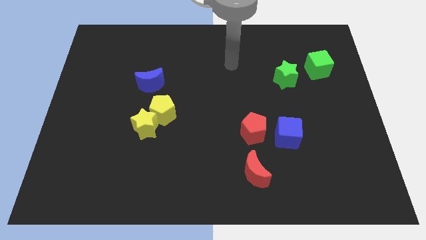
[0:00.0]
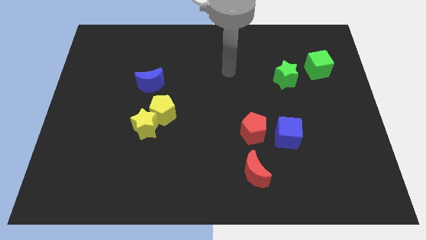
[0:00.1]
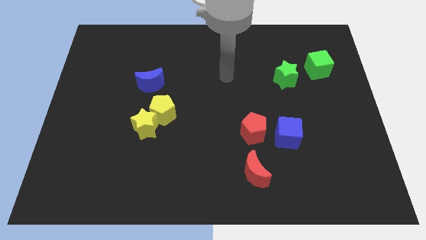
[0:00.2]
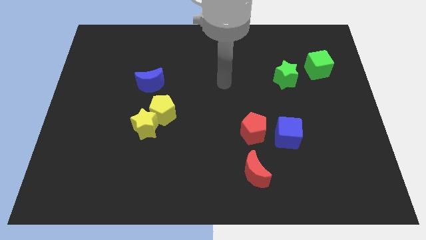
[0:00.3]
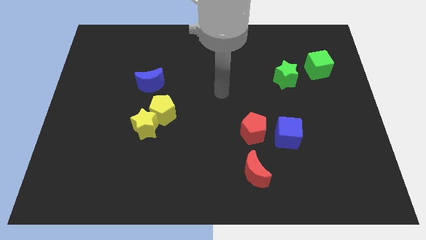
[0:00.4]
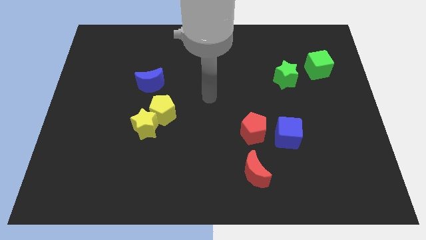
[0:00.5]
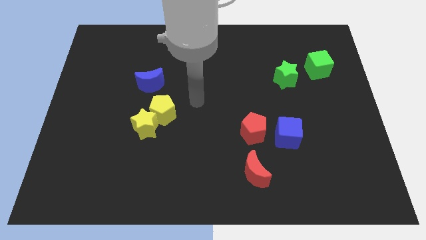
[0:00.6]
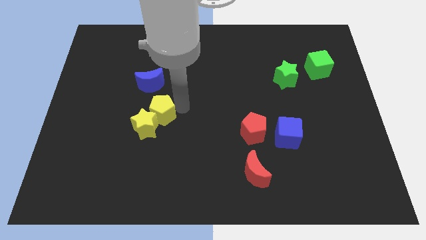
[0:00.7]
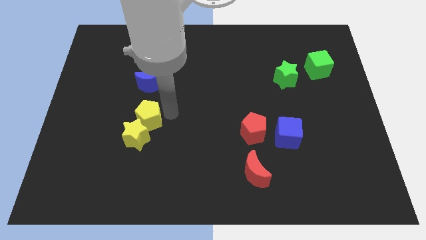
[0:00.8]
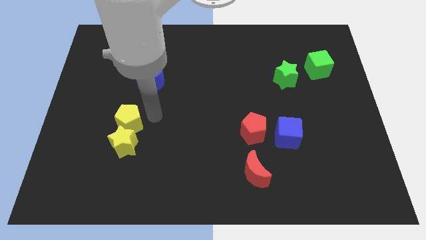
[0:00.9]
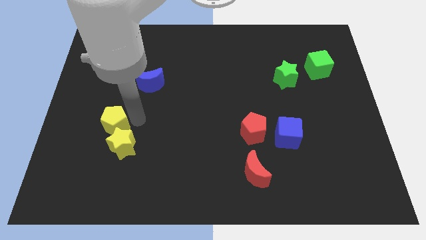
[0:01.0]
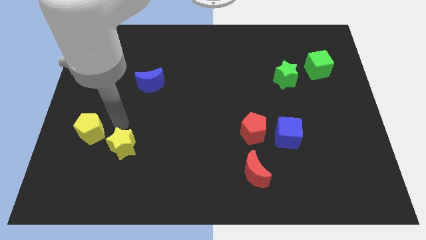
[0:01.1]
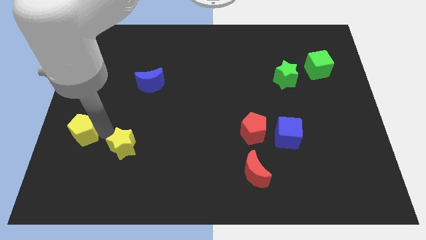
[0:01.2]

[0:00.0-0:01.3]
pull the yellow star apart from the yellow pentagon

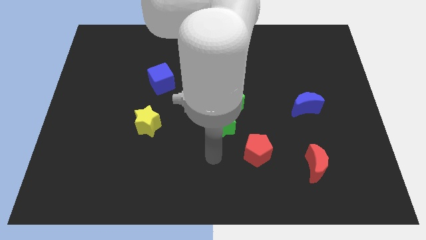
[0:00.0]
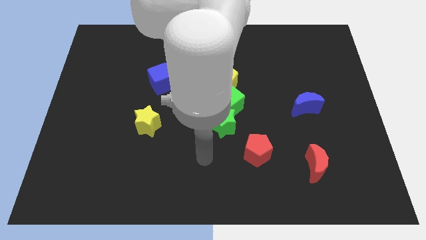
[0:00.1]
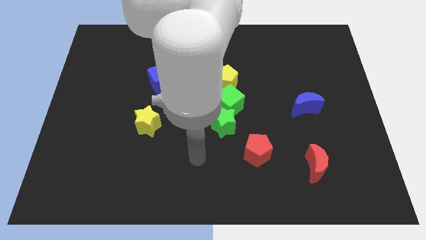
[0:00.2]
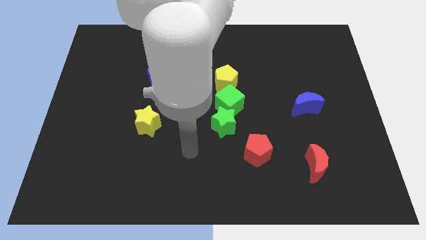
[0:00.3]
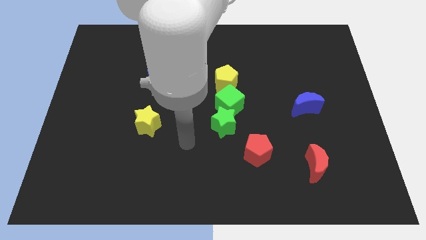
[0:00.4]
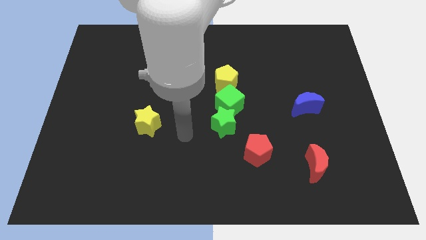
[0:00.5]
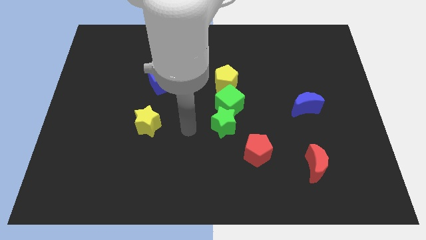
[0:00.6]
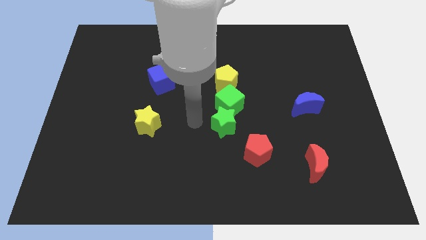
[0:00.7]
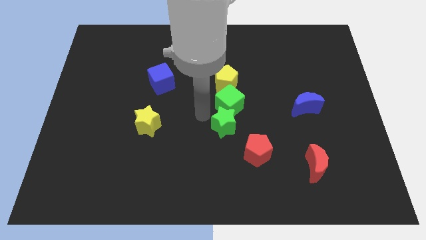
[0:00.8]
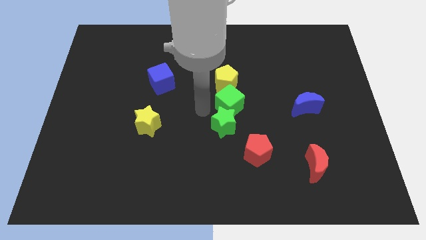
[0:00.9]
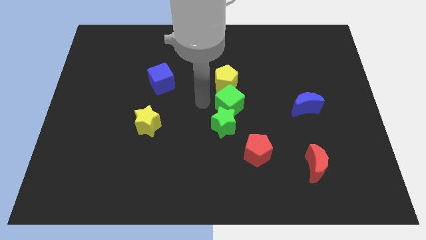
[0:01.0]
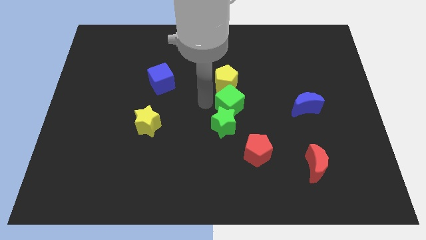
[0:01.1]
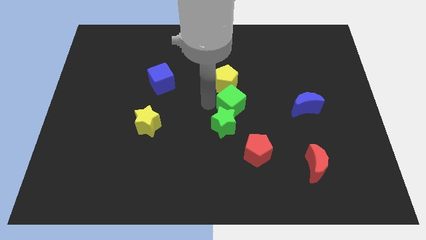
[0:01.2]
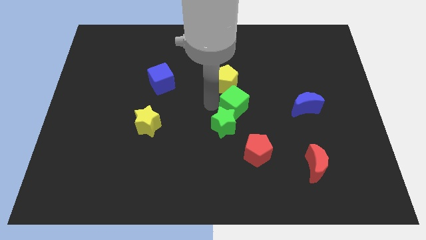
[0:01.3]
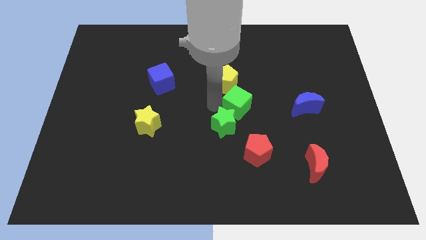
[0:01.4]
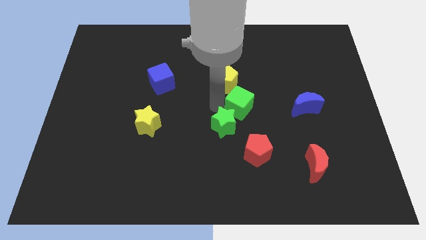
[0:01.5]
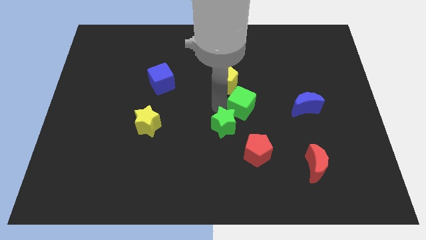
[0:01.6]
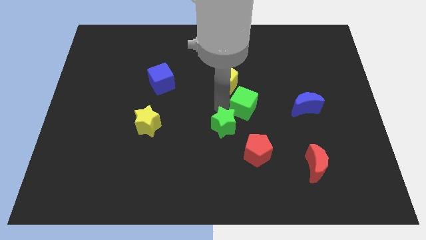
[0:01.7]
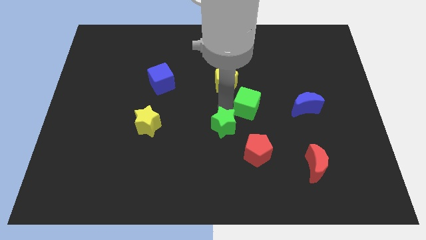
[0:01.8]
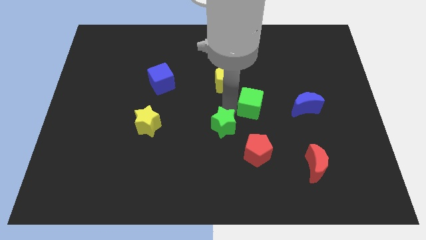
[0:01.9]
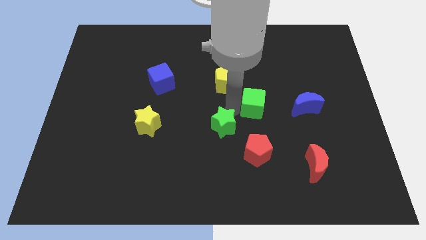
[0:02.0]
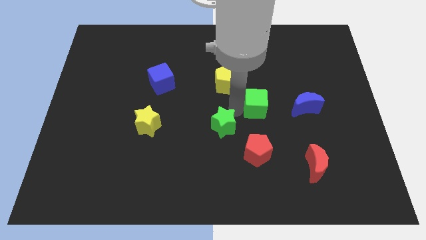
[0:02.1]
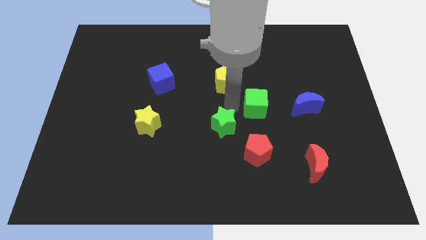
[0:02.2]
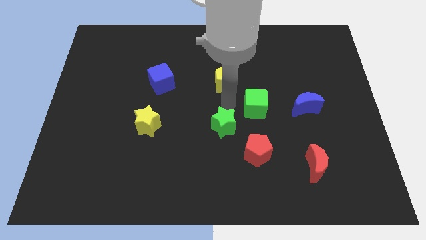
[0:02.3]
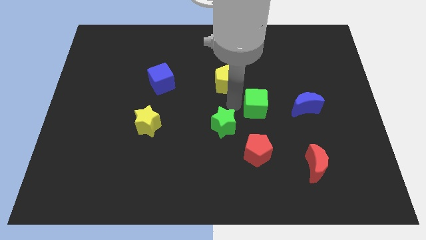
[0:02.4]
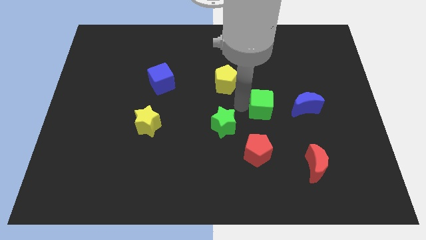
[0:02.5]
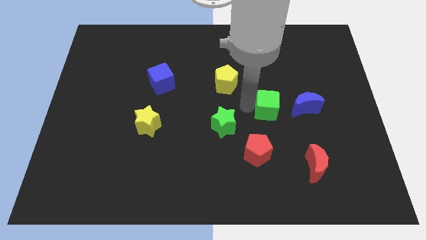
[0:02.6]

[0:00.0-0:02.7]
pull the green cube apart from the green star and yellow pentagon

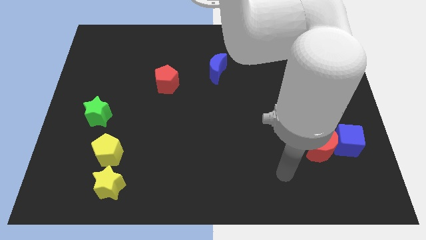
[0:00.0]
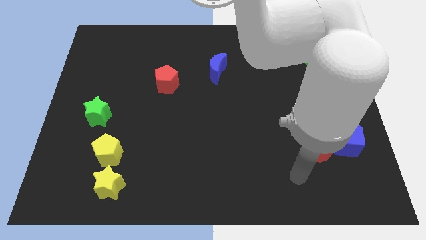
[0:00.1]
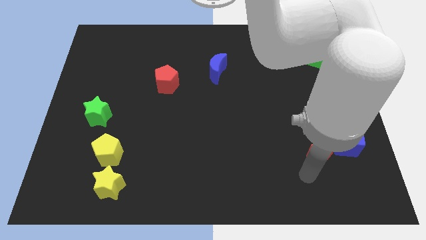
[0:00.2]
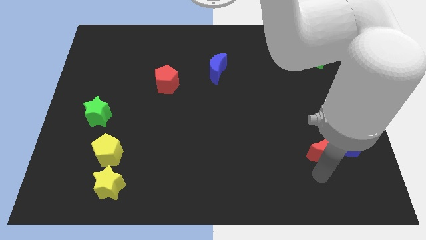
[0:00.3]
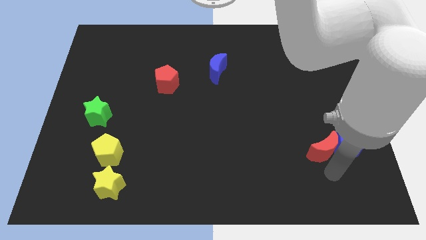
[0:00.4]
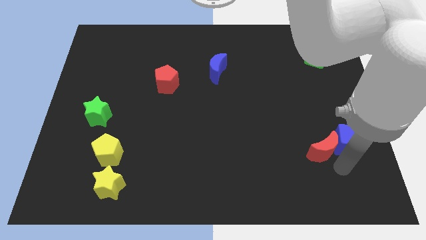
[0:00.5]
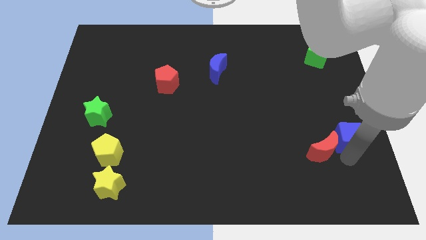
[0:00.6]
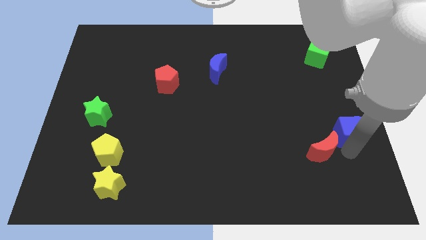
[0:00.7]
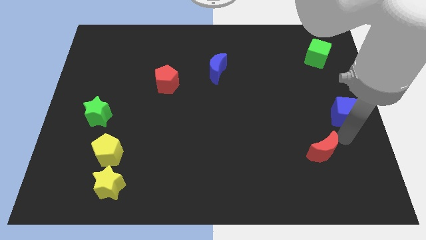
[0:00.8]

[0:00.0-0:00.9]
separate the red moon from the blue cube

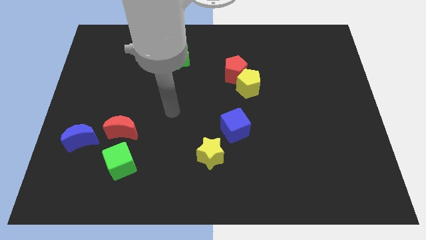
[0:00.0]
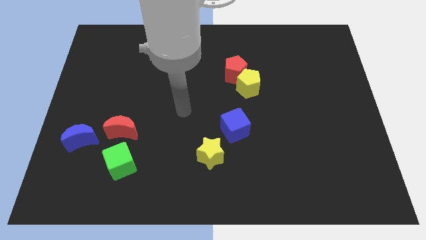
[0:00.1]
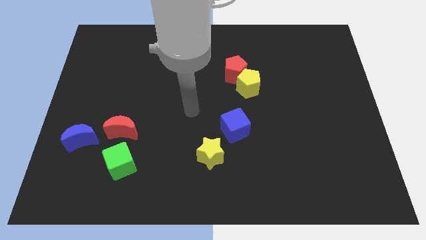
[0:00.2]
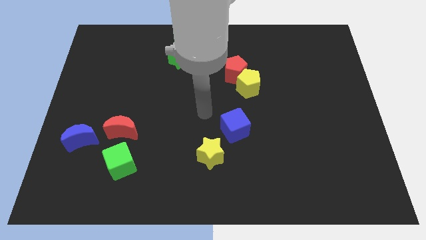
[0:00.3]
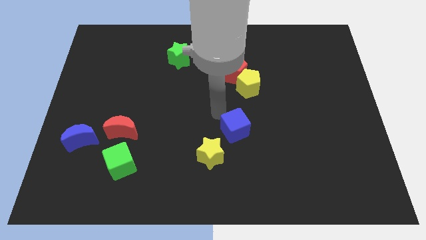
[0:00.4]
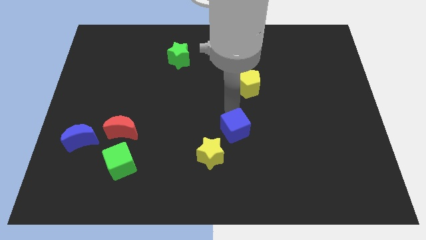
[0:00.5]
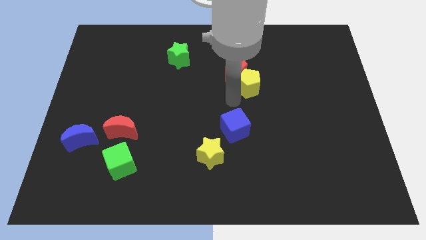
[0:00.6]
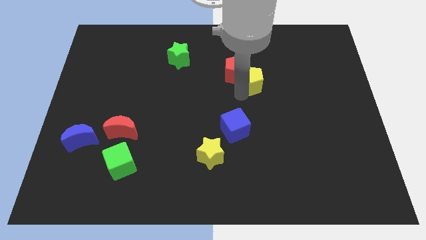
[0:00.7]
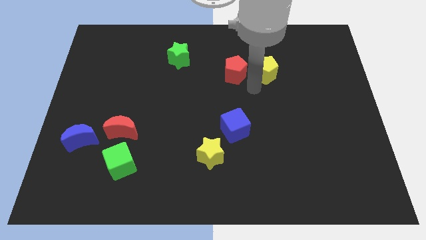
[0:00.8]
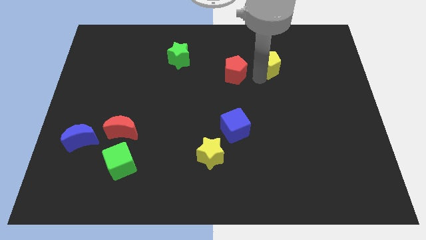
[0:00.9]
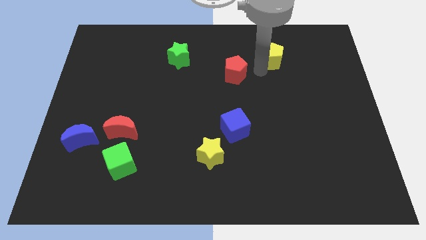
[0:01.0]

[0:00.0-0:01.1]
pull the red pentagon apart from the yellow pentagon

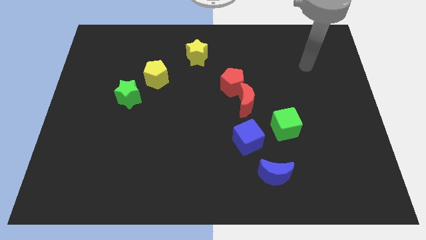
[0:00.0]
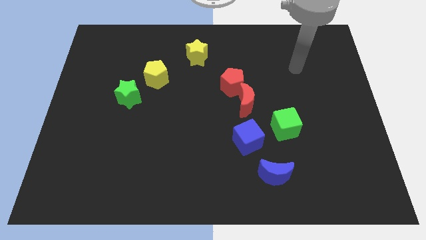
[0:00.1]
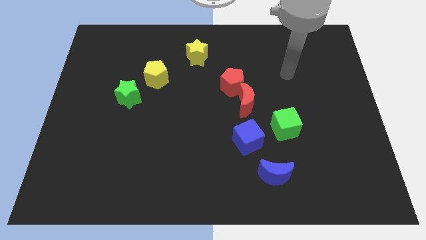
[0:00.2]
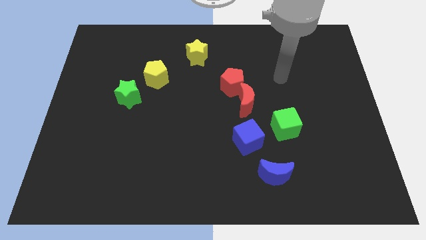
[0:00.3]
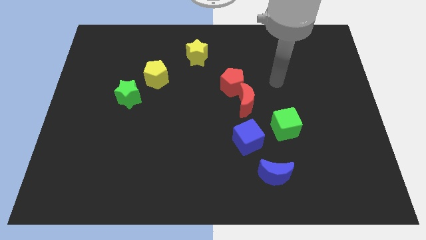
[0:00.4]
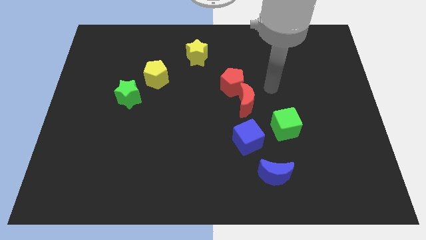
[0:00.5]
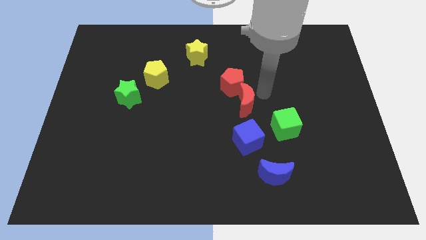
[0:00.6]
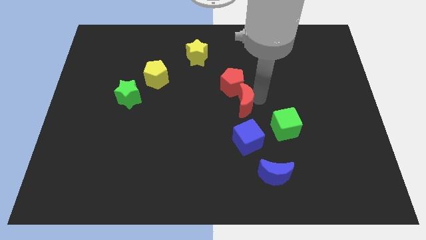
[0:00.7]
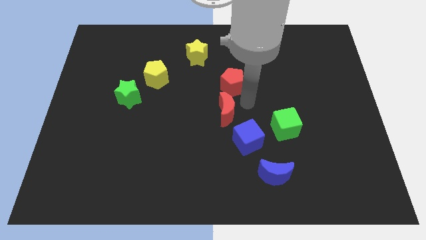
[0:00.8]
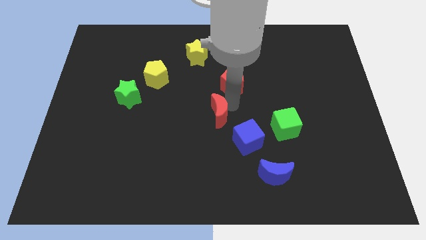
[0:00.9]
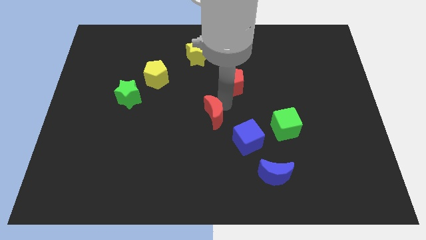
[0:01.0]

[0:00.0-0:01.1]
move the red pentagon away from the red moon

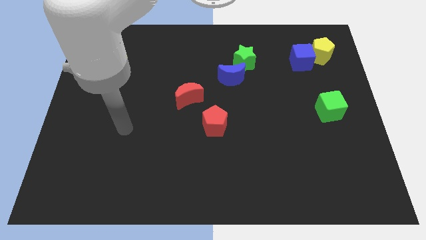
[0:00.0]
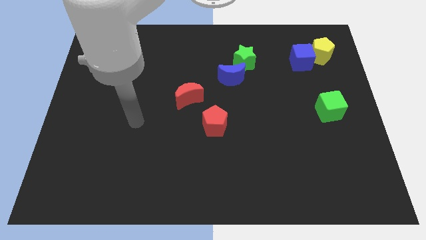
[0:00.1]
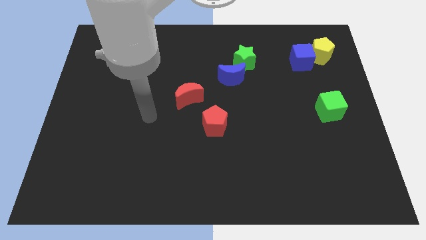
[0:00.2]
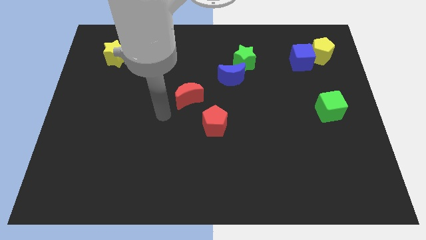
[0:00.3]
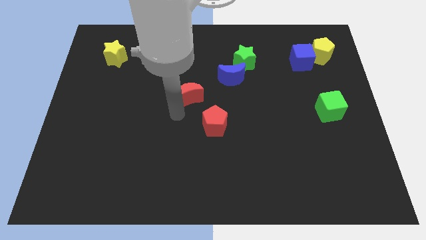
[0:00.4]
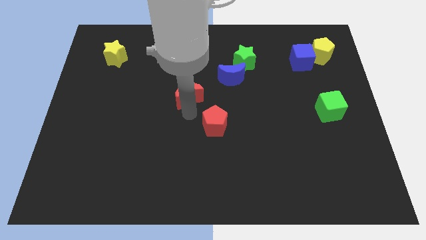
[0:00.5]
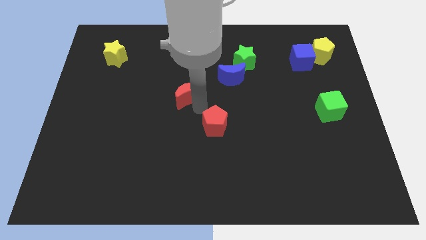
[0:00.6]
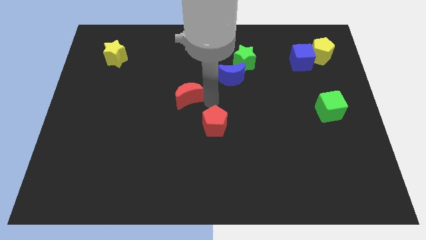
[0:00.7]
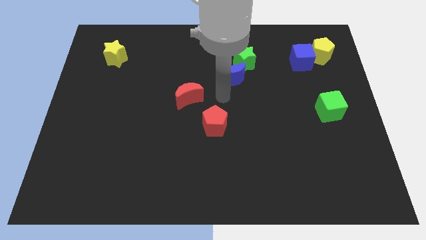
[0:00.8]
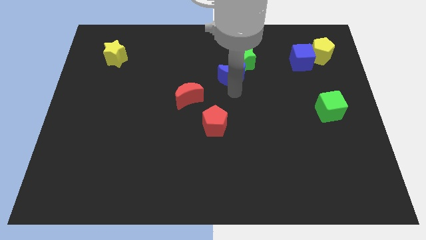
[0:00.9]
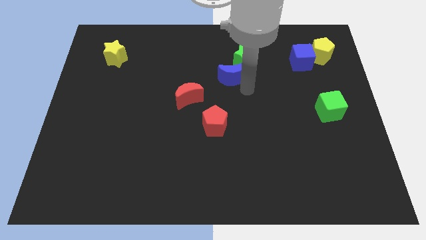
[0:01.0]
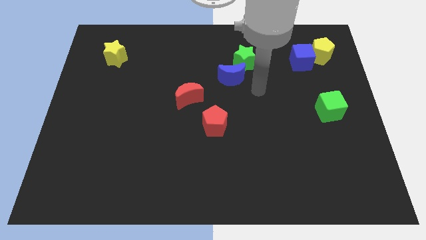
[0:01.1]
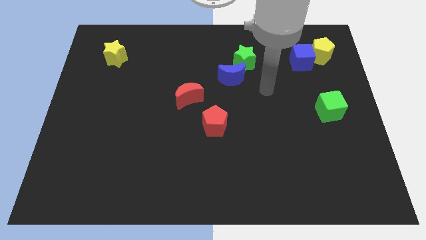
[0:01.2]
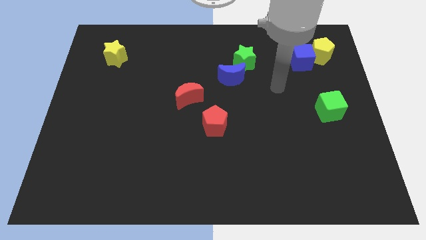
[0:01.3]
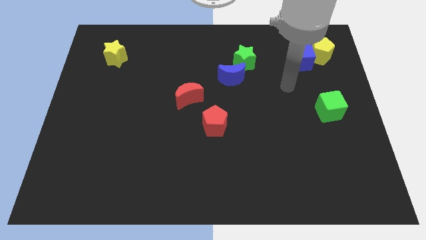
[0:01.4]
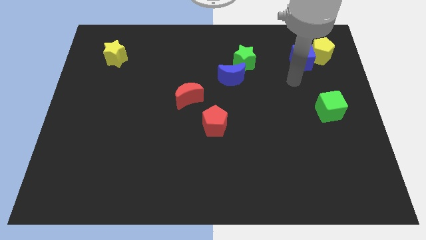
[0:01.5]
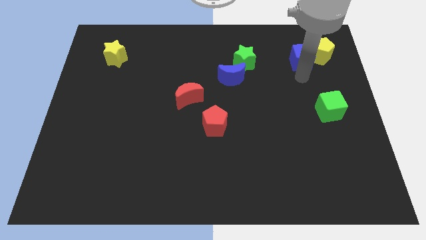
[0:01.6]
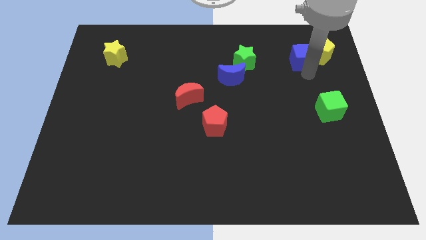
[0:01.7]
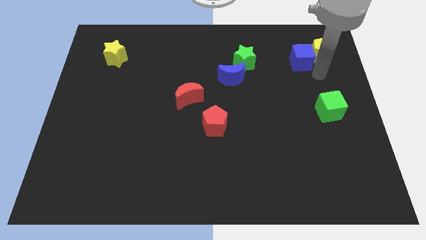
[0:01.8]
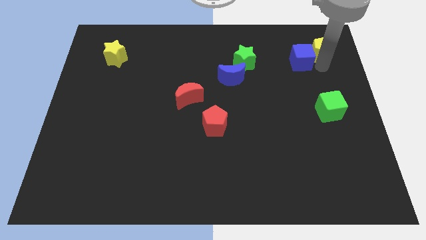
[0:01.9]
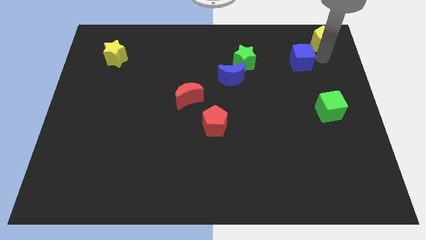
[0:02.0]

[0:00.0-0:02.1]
move the blue cube away from the yellow pentagon

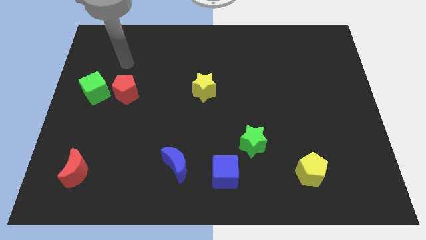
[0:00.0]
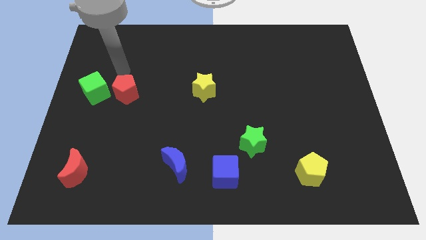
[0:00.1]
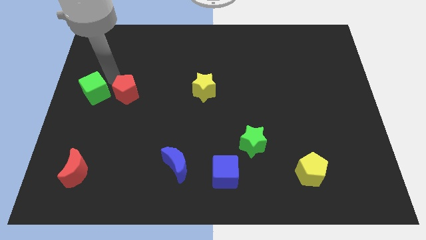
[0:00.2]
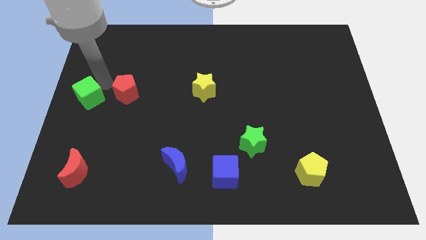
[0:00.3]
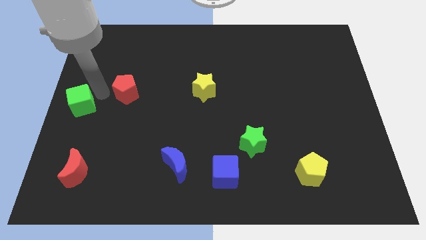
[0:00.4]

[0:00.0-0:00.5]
separate the red pentagon from the green cube
